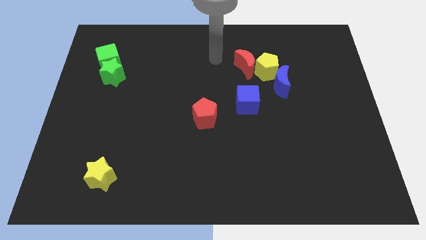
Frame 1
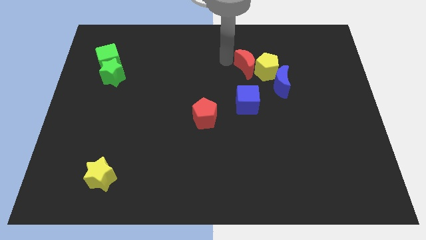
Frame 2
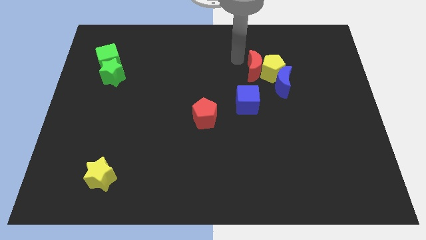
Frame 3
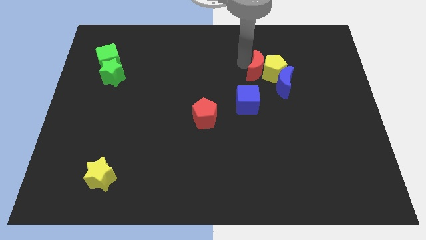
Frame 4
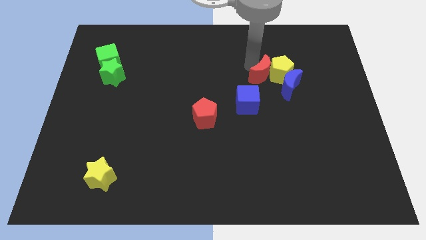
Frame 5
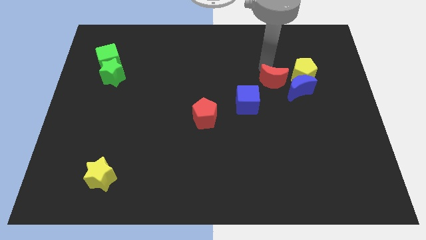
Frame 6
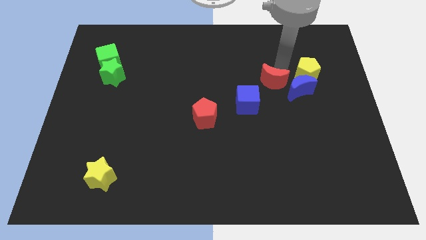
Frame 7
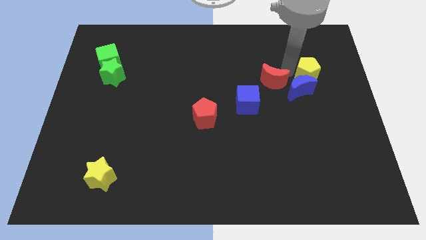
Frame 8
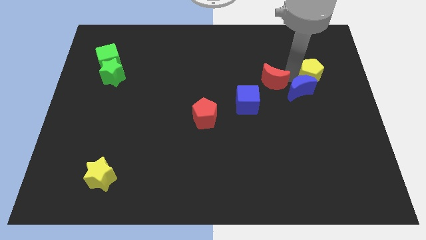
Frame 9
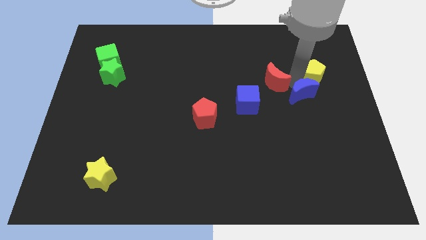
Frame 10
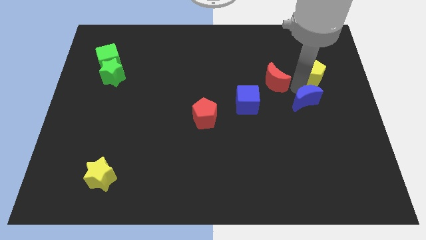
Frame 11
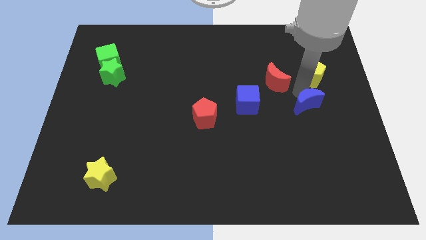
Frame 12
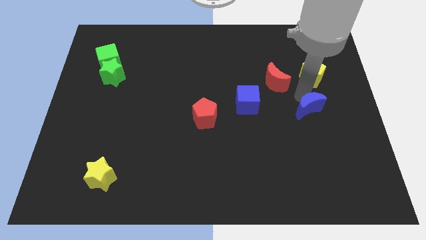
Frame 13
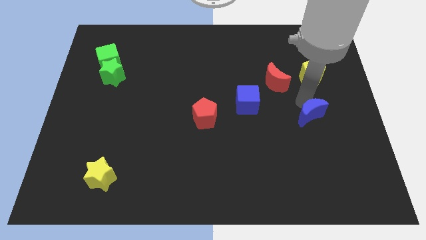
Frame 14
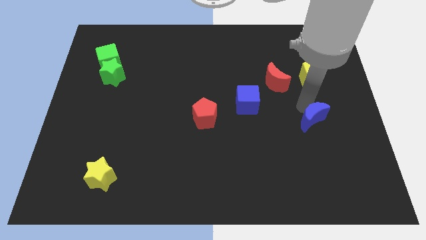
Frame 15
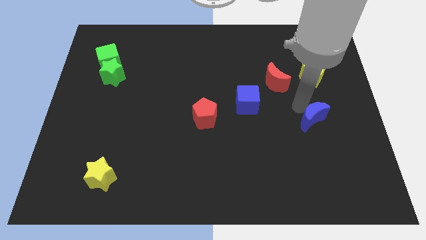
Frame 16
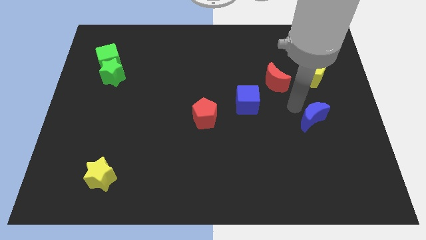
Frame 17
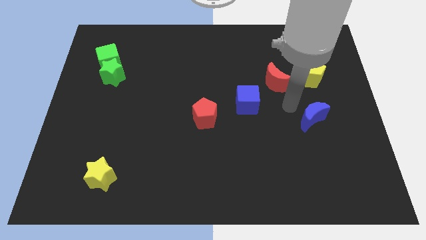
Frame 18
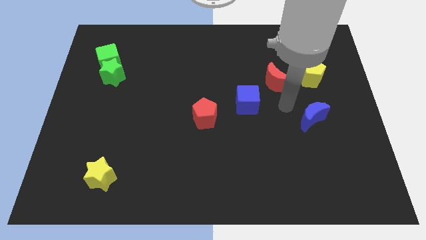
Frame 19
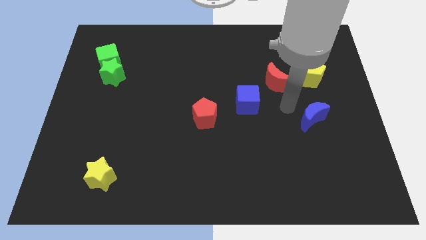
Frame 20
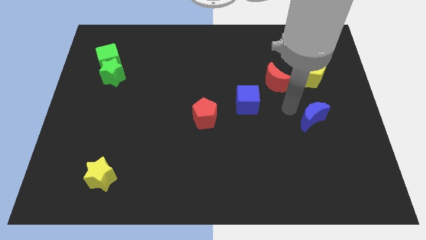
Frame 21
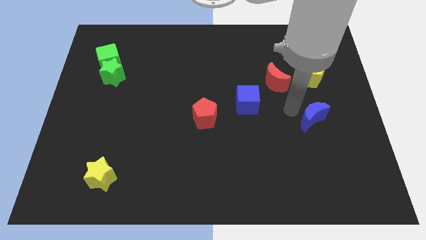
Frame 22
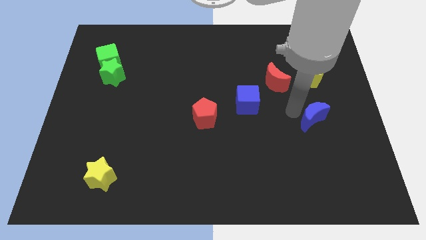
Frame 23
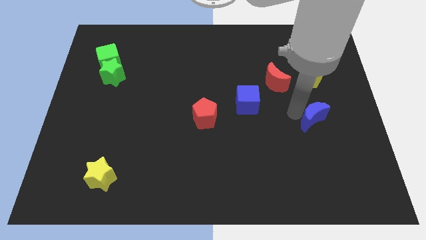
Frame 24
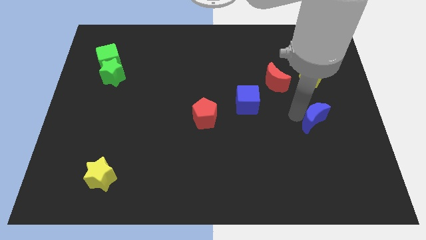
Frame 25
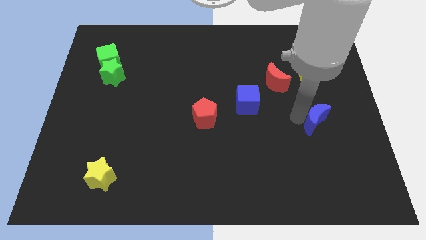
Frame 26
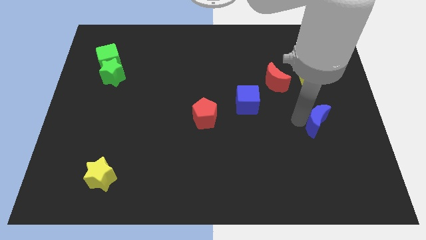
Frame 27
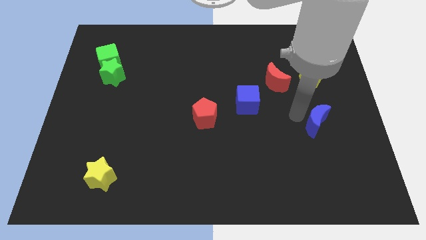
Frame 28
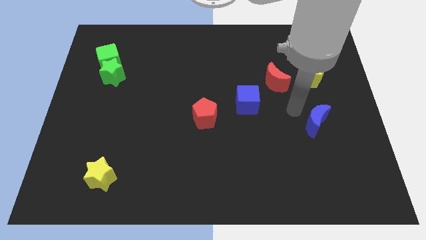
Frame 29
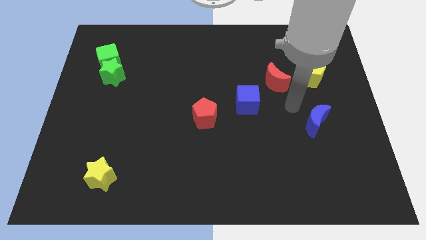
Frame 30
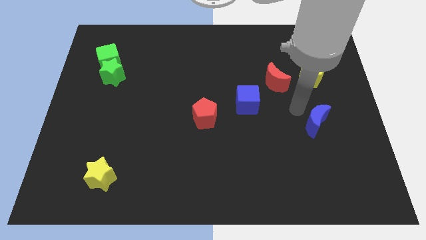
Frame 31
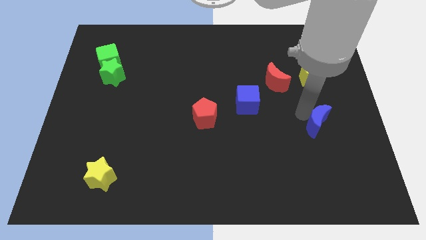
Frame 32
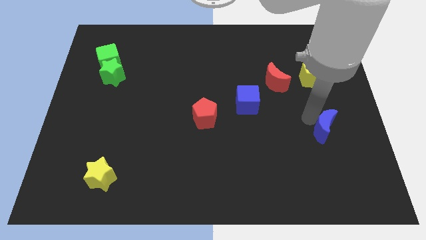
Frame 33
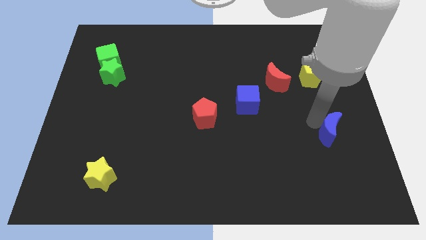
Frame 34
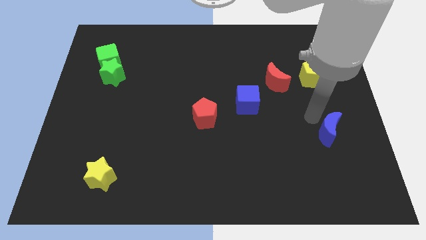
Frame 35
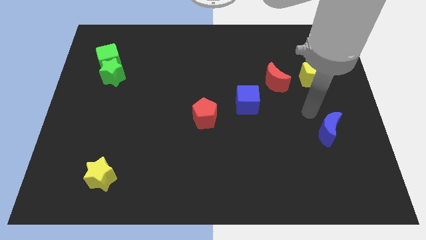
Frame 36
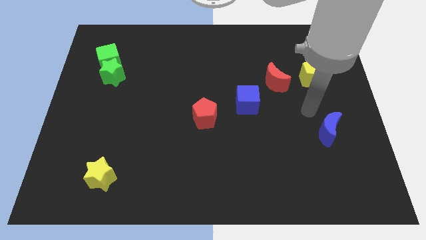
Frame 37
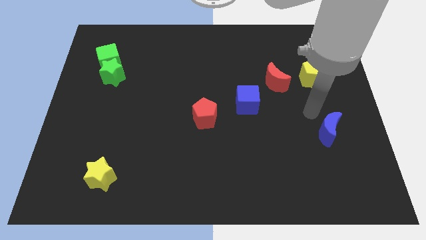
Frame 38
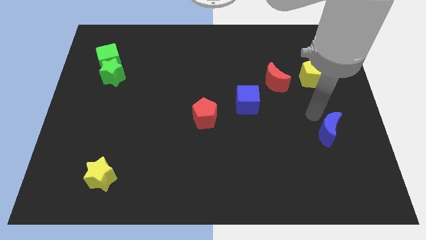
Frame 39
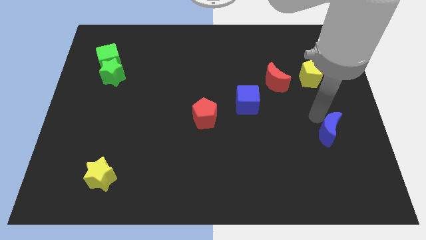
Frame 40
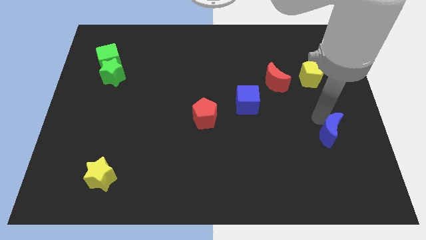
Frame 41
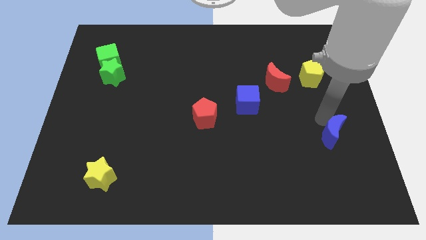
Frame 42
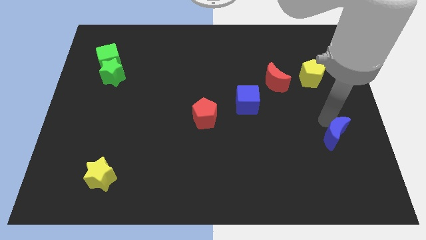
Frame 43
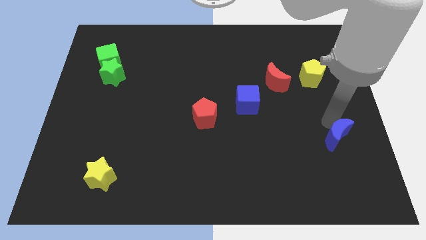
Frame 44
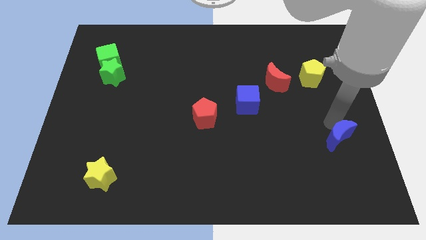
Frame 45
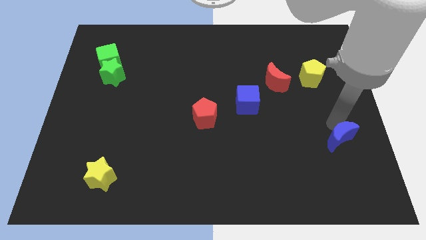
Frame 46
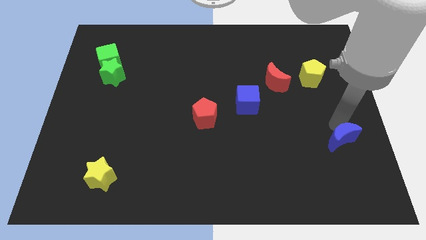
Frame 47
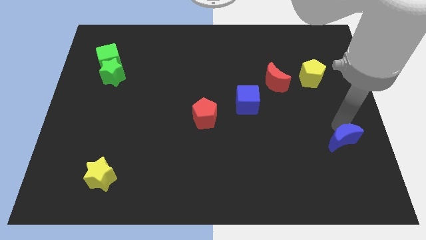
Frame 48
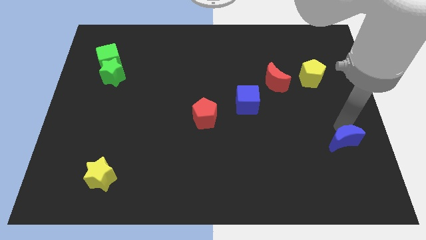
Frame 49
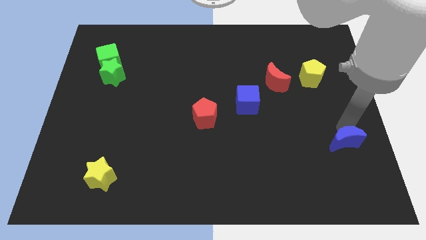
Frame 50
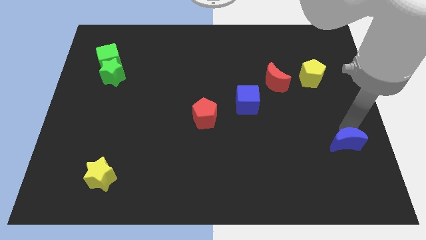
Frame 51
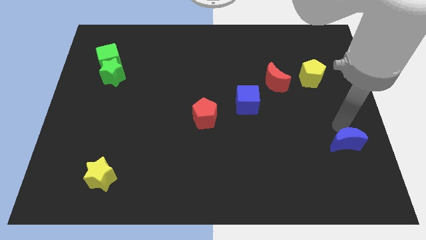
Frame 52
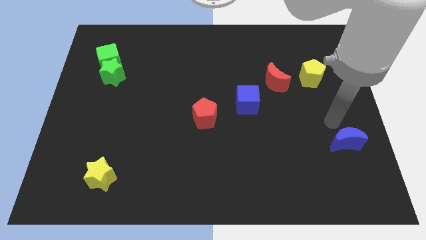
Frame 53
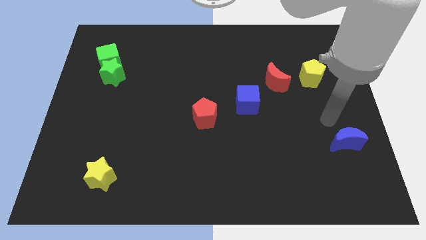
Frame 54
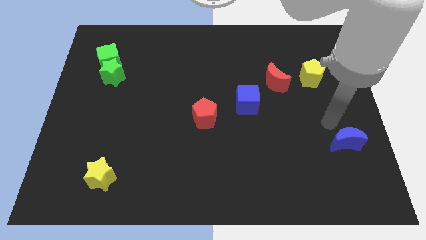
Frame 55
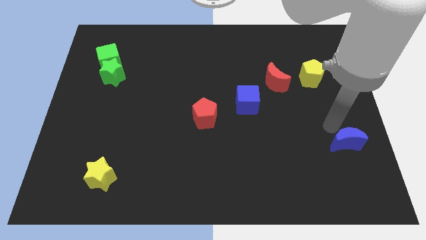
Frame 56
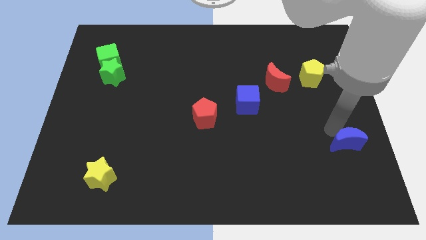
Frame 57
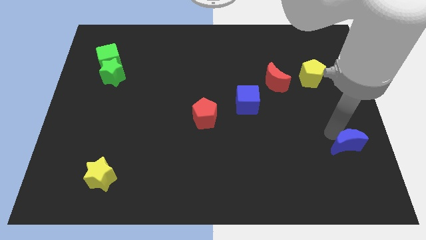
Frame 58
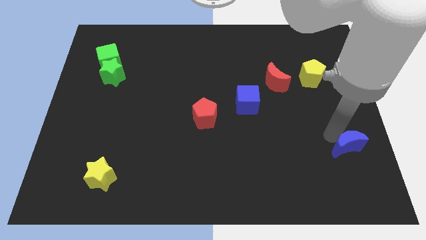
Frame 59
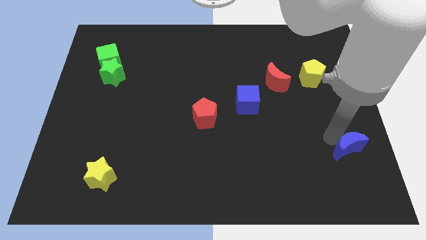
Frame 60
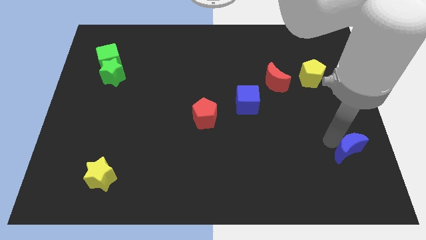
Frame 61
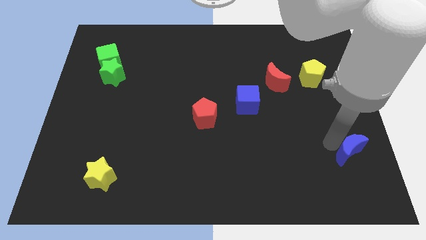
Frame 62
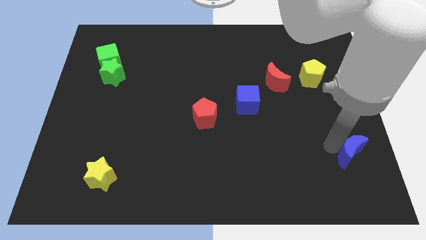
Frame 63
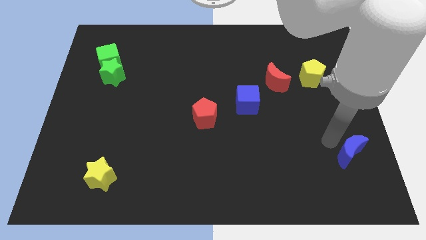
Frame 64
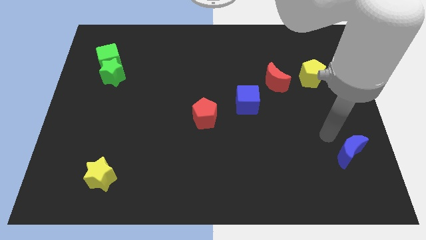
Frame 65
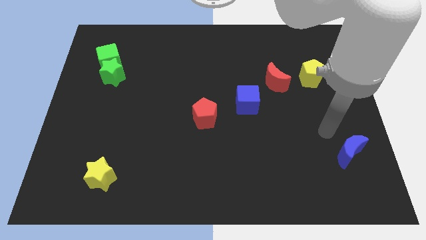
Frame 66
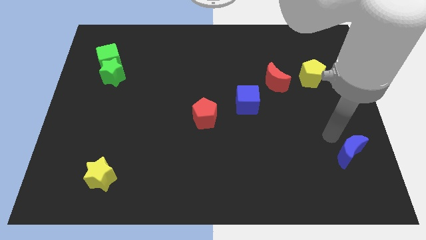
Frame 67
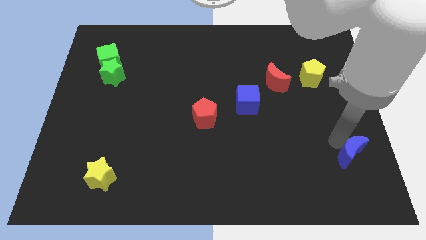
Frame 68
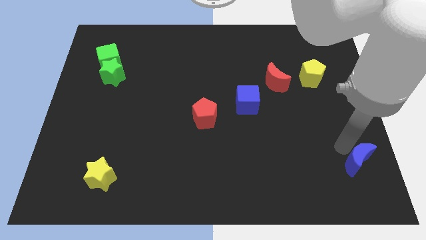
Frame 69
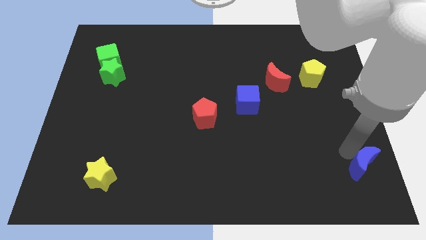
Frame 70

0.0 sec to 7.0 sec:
put the blue moon to the bottom right corner

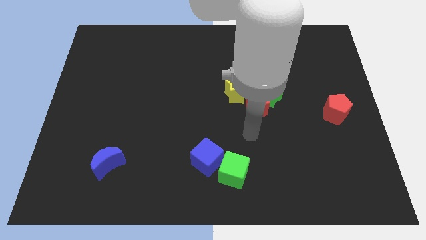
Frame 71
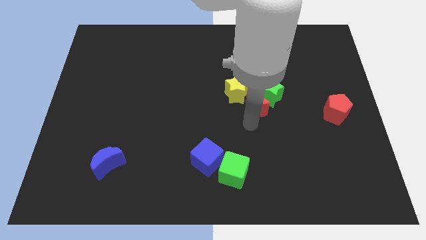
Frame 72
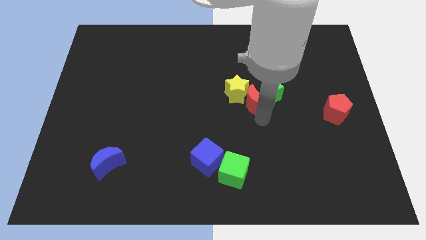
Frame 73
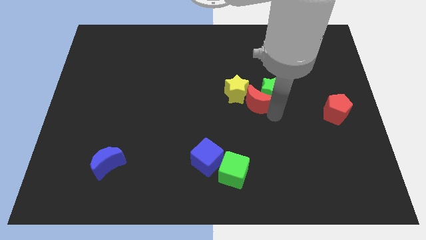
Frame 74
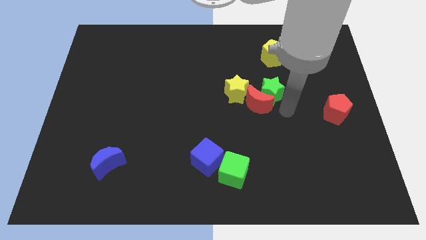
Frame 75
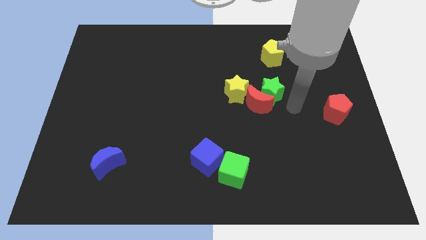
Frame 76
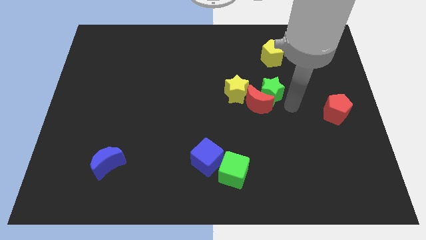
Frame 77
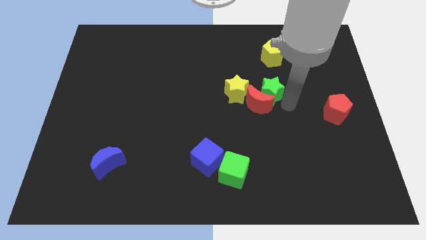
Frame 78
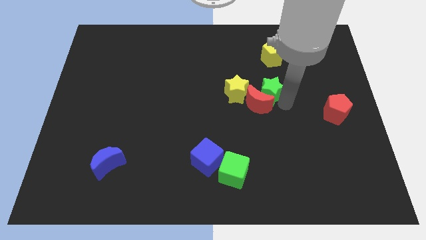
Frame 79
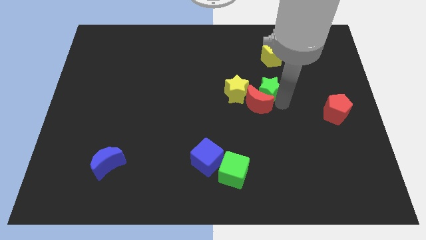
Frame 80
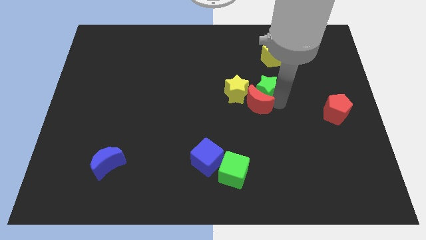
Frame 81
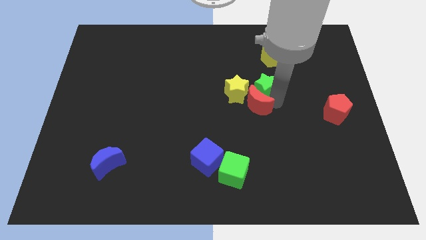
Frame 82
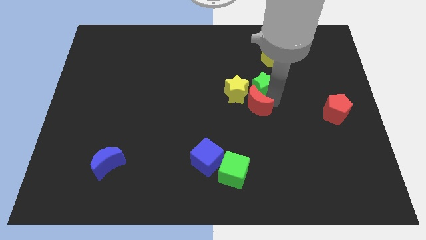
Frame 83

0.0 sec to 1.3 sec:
put the green star to the middle of the board
